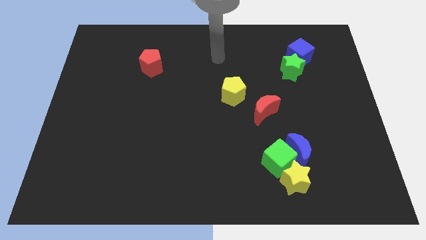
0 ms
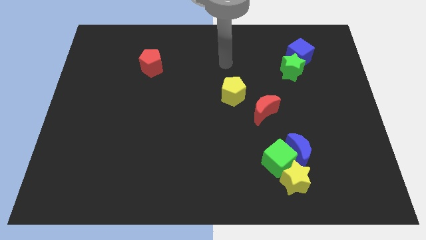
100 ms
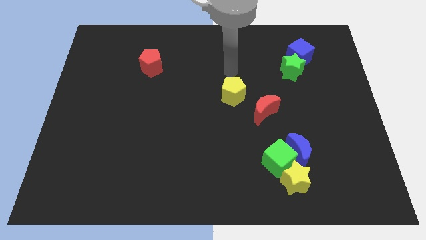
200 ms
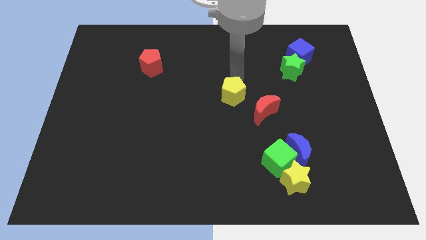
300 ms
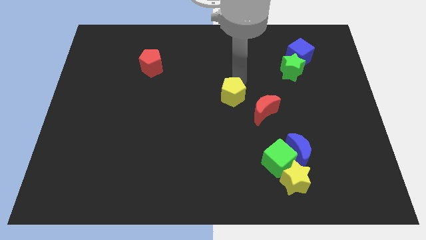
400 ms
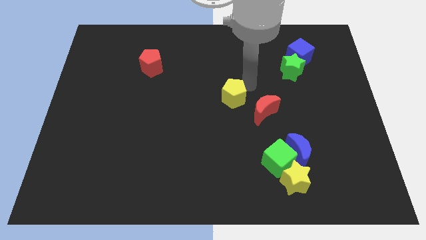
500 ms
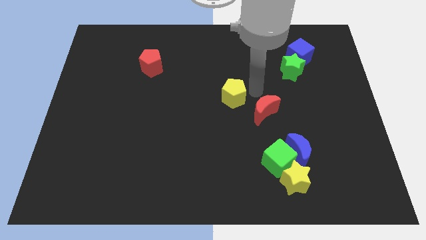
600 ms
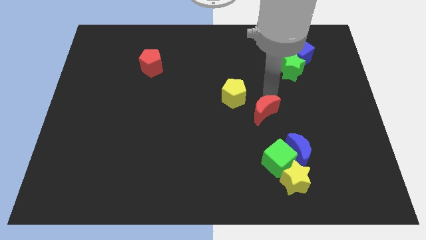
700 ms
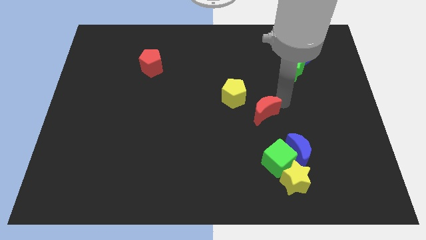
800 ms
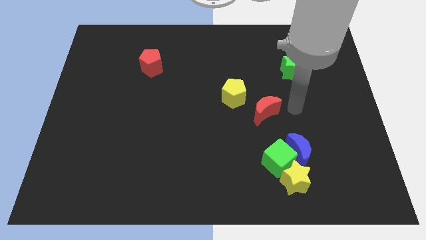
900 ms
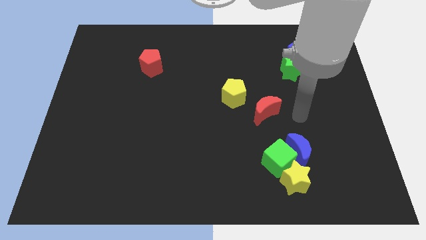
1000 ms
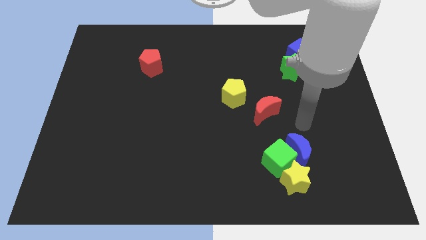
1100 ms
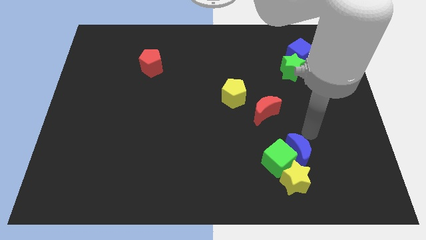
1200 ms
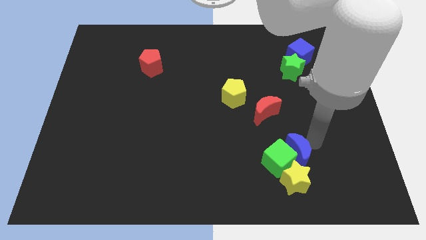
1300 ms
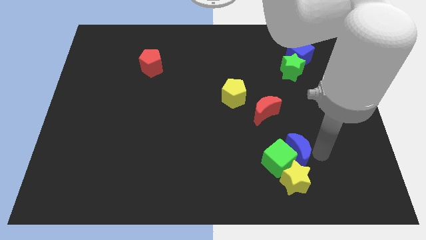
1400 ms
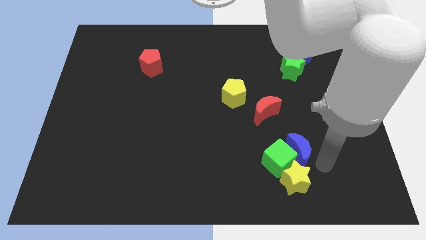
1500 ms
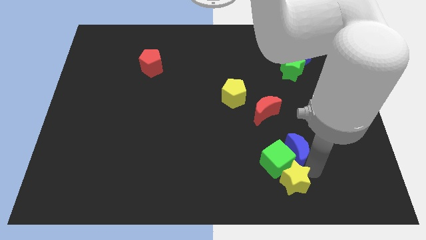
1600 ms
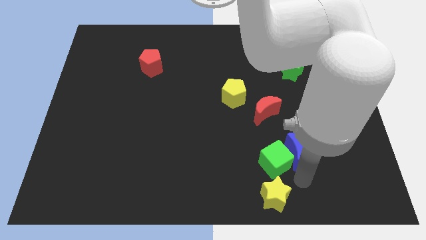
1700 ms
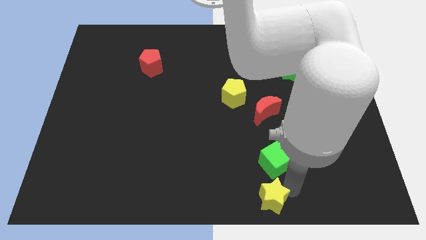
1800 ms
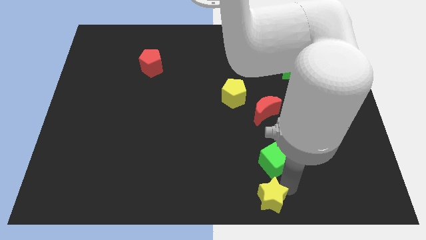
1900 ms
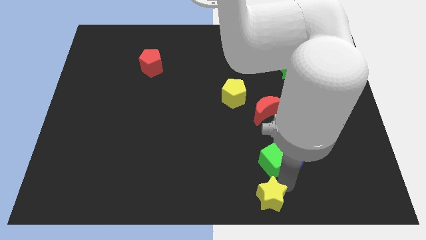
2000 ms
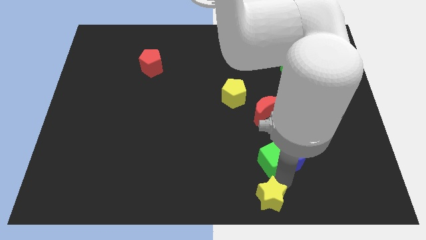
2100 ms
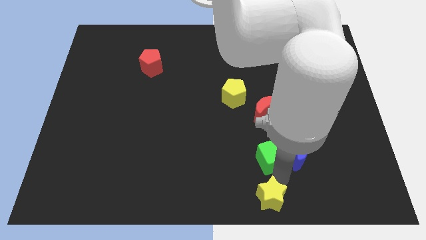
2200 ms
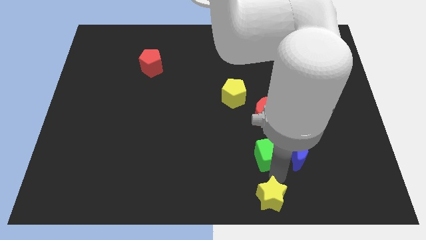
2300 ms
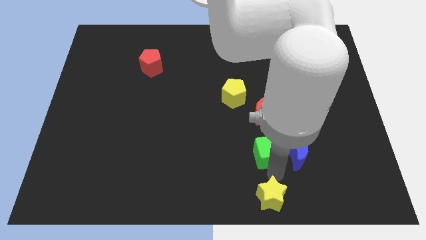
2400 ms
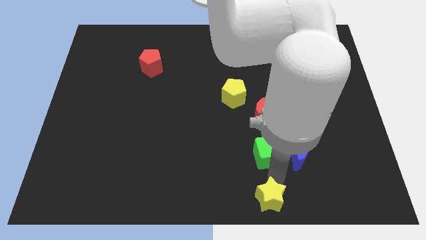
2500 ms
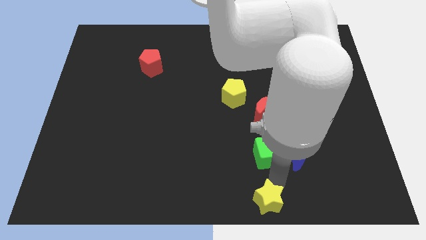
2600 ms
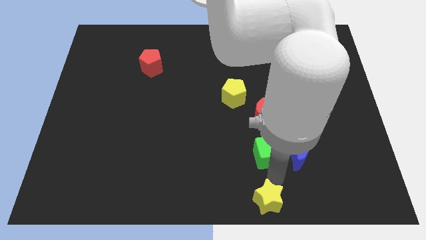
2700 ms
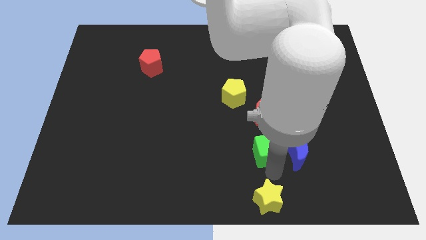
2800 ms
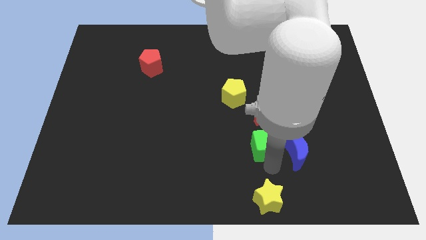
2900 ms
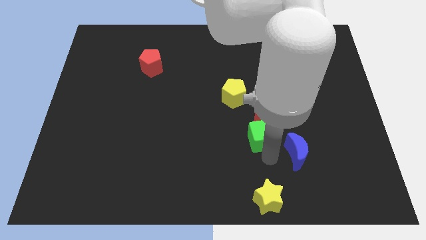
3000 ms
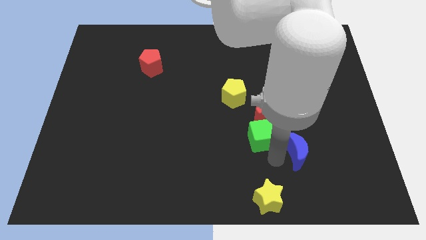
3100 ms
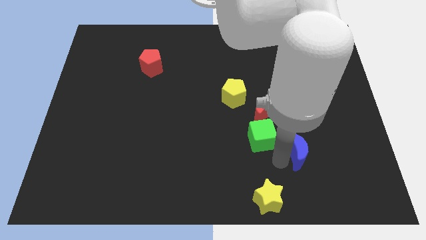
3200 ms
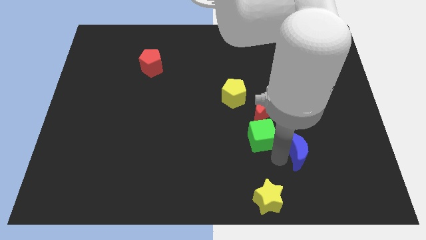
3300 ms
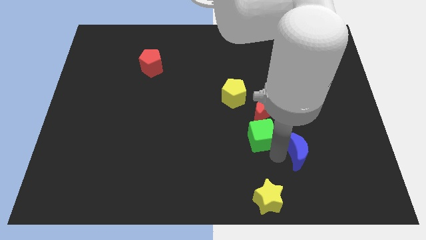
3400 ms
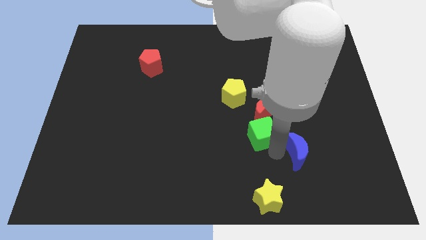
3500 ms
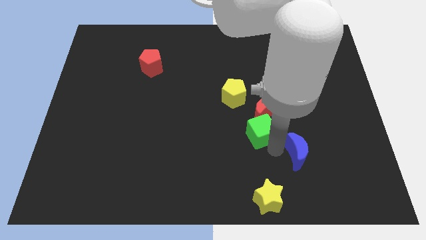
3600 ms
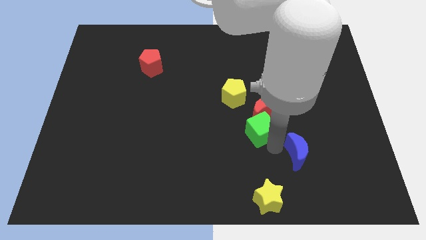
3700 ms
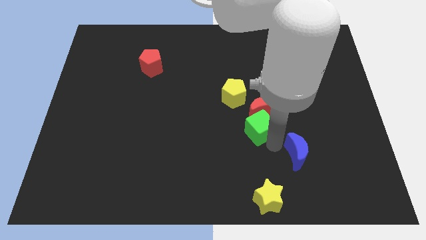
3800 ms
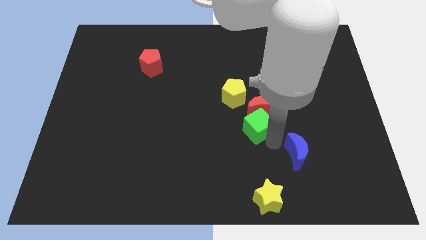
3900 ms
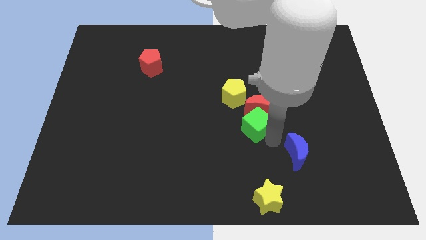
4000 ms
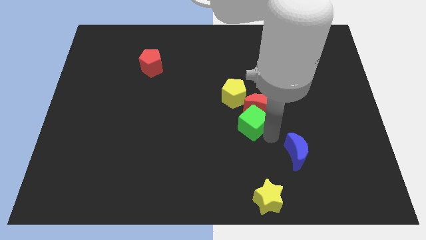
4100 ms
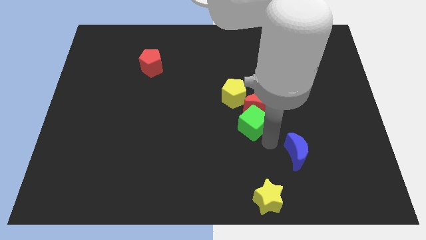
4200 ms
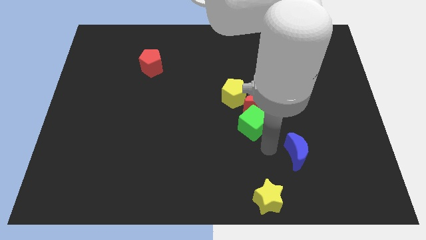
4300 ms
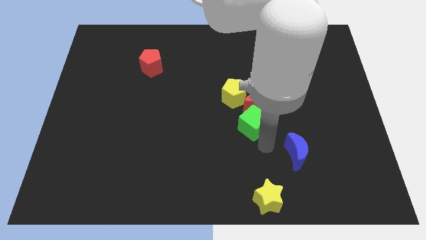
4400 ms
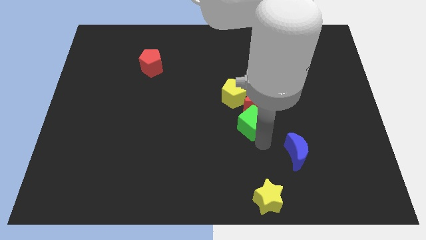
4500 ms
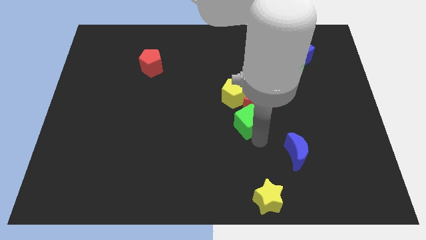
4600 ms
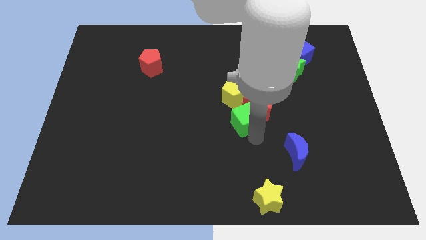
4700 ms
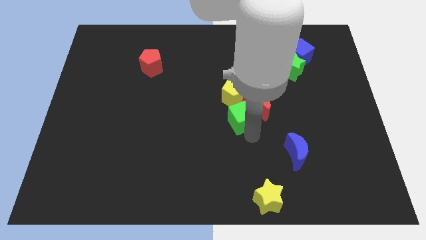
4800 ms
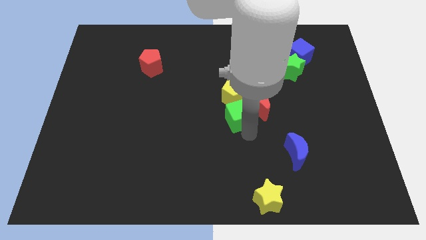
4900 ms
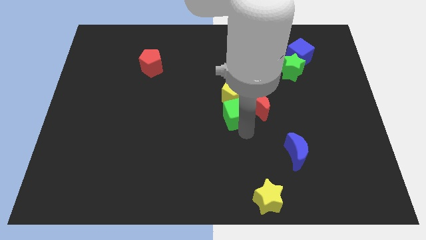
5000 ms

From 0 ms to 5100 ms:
slide the green cube close to the yellow pentagon

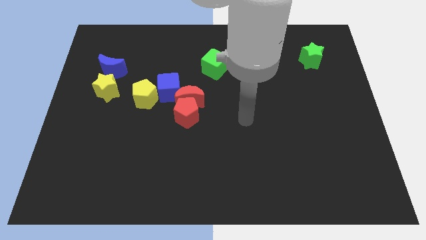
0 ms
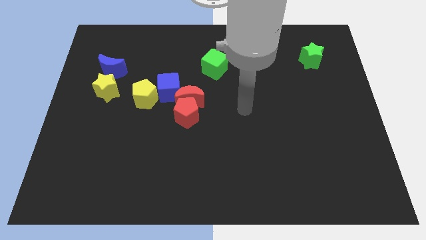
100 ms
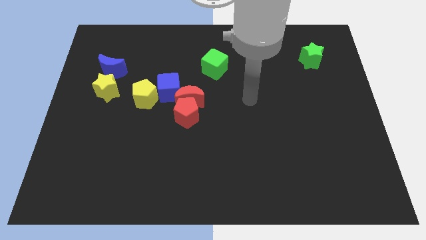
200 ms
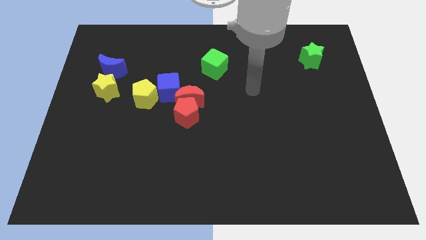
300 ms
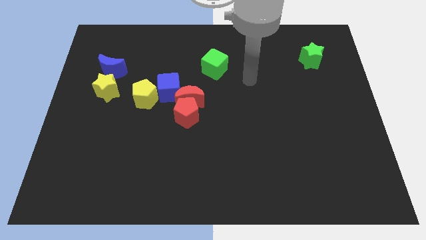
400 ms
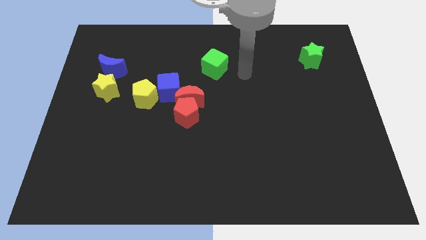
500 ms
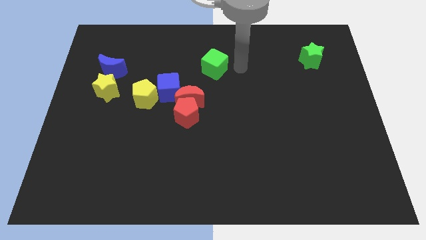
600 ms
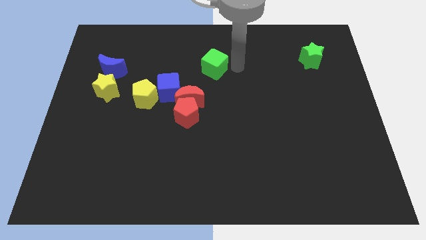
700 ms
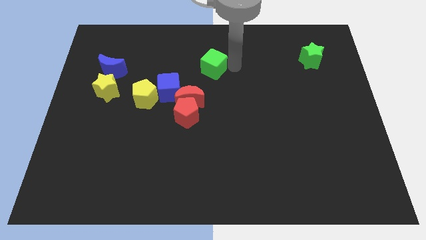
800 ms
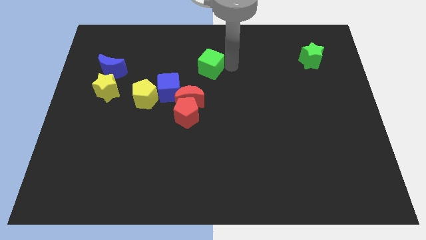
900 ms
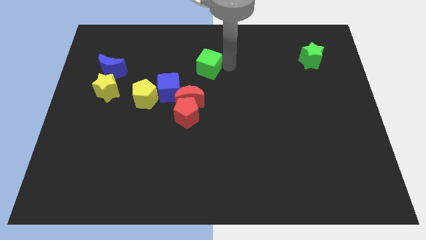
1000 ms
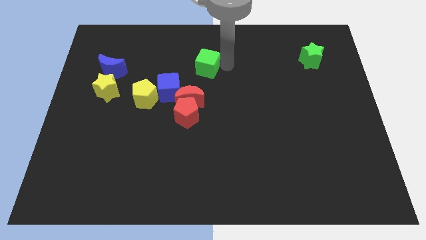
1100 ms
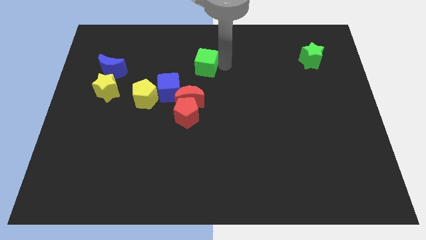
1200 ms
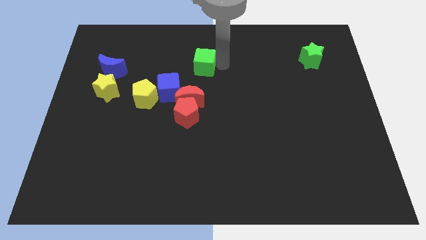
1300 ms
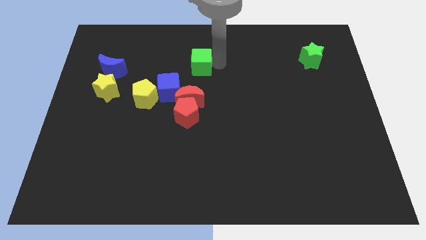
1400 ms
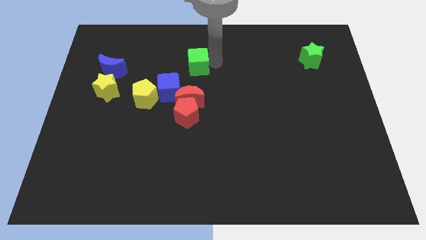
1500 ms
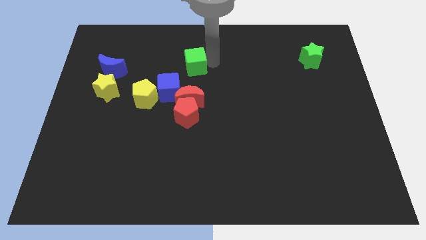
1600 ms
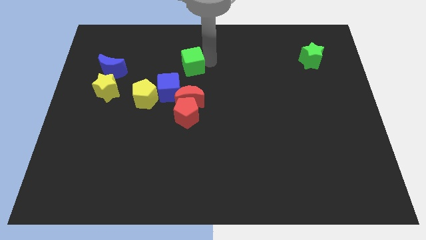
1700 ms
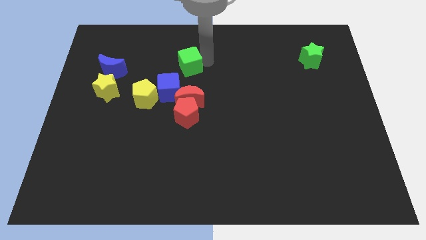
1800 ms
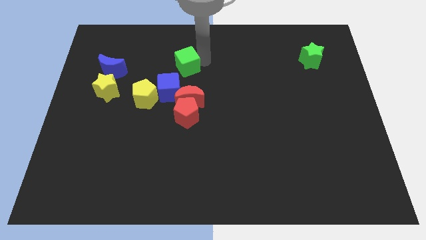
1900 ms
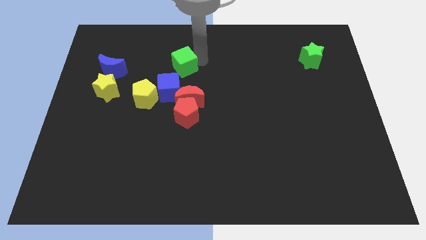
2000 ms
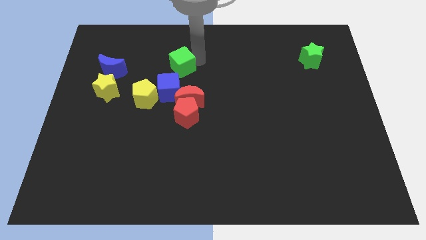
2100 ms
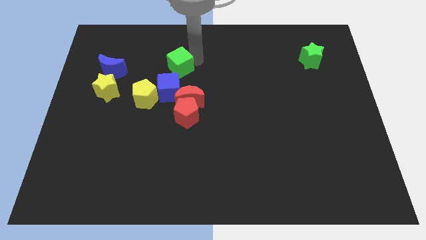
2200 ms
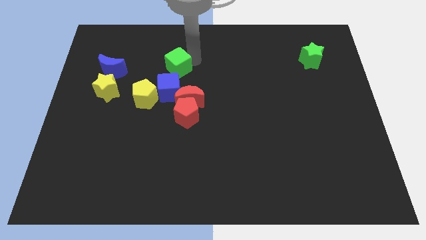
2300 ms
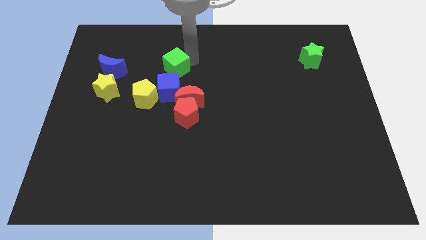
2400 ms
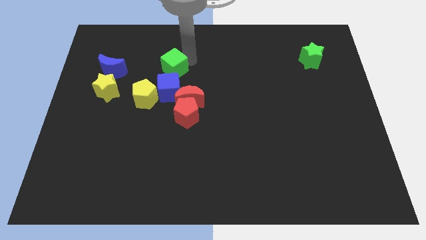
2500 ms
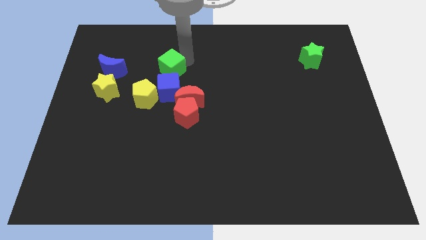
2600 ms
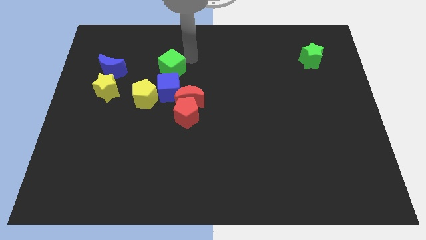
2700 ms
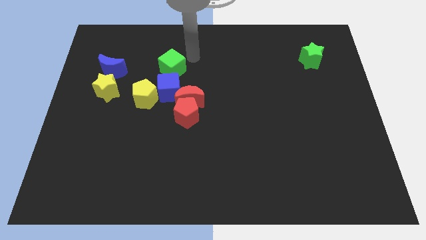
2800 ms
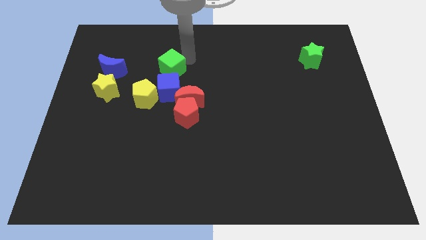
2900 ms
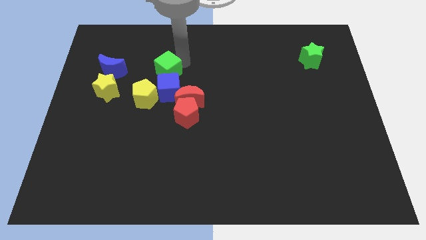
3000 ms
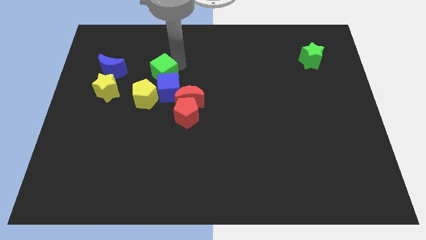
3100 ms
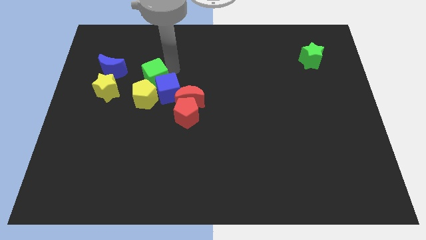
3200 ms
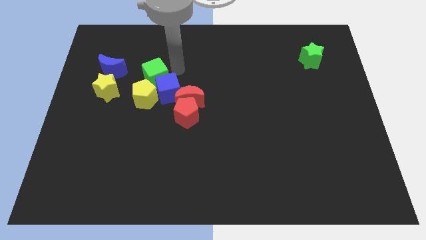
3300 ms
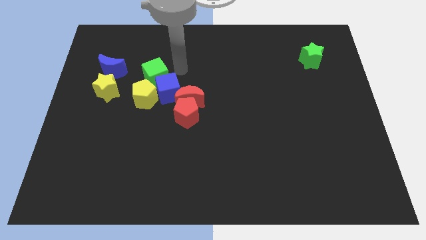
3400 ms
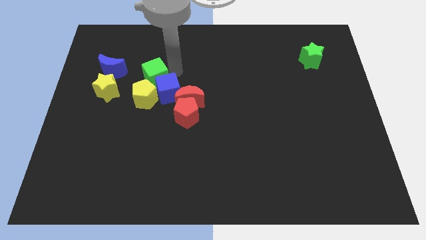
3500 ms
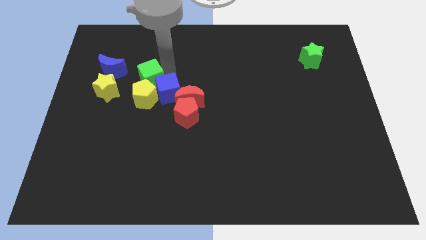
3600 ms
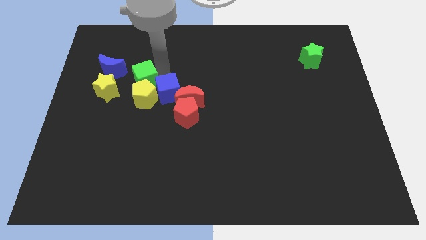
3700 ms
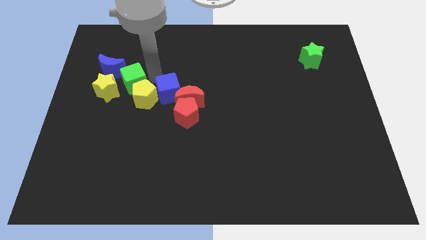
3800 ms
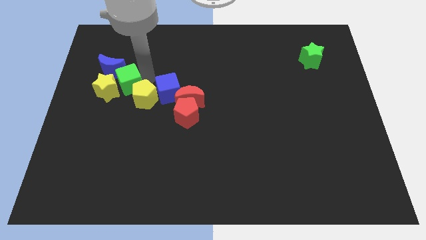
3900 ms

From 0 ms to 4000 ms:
put the green cube next to the yellow star
